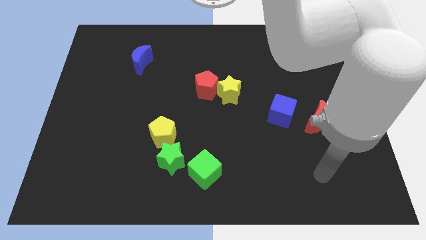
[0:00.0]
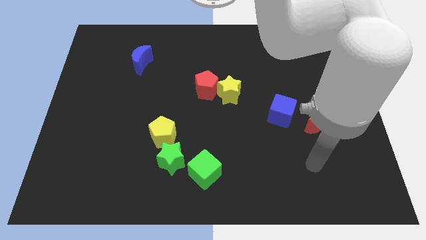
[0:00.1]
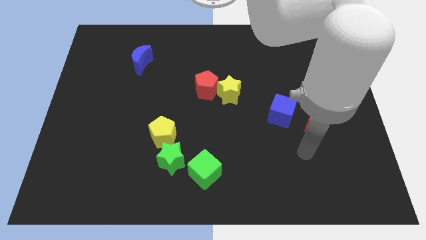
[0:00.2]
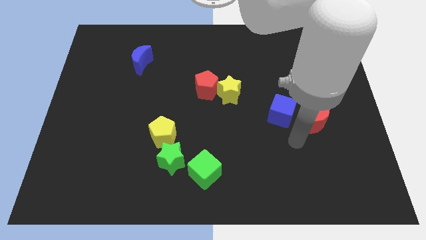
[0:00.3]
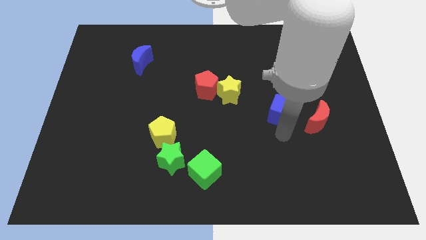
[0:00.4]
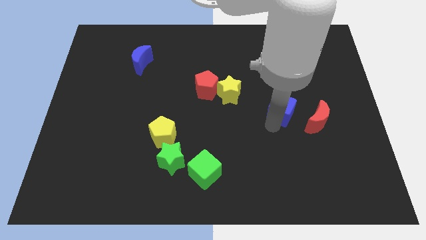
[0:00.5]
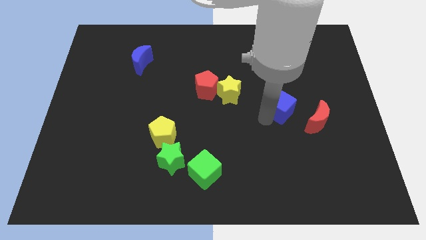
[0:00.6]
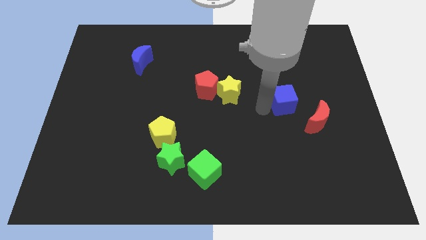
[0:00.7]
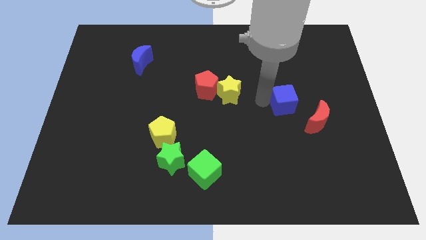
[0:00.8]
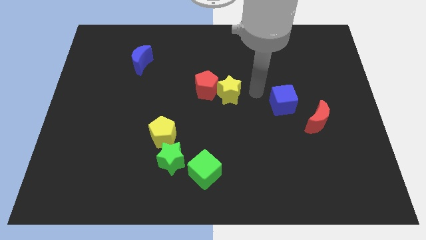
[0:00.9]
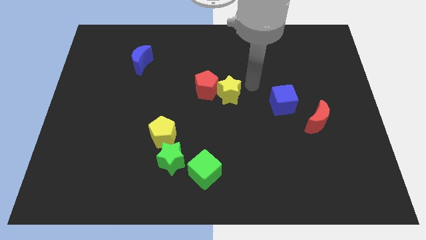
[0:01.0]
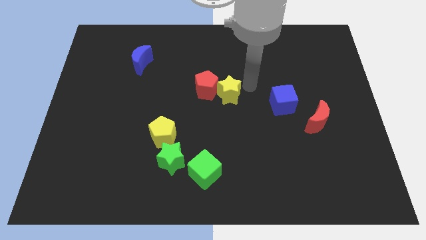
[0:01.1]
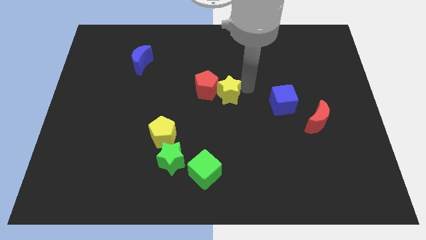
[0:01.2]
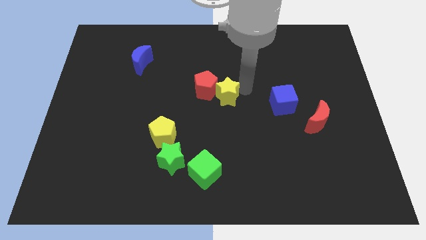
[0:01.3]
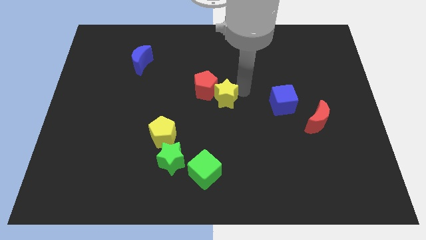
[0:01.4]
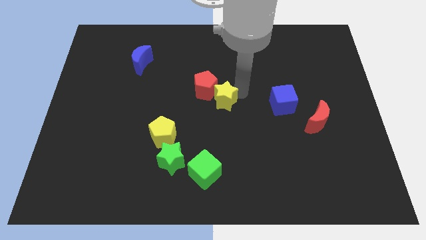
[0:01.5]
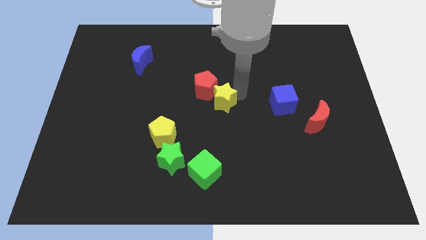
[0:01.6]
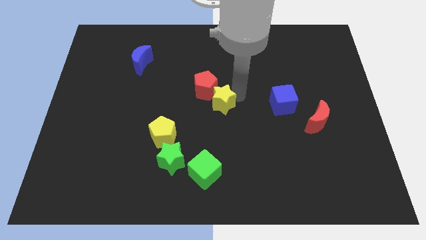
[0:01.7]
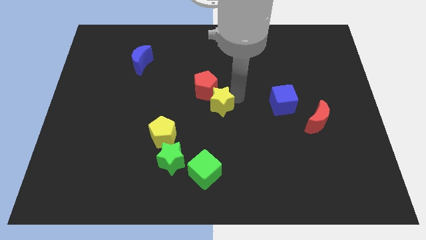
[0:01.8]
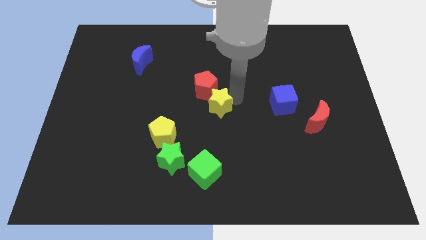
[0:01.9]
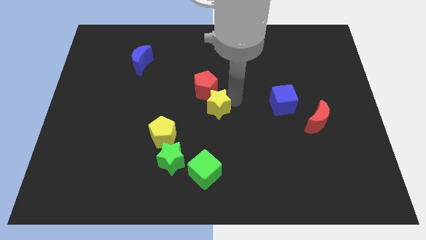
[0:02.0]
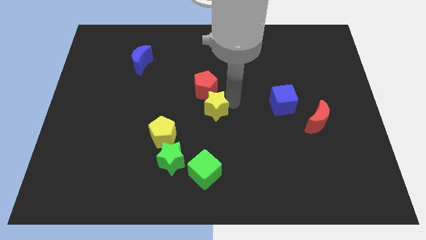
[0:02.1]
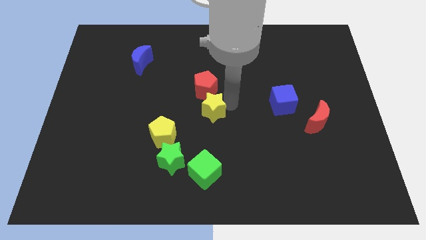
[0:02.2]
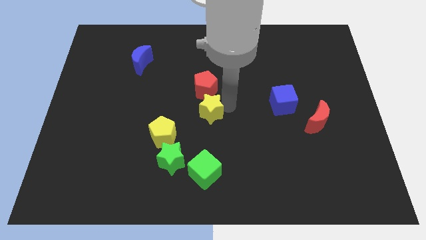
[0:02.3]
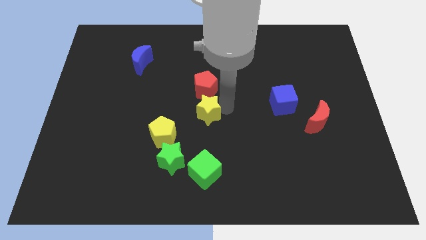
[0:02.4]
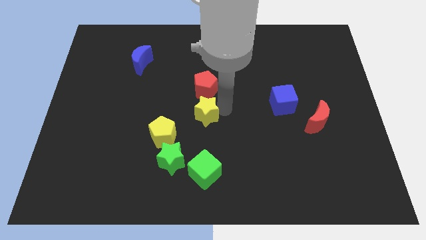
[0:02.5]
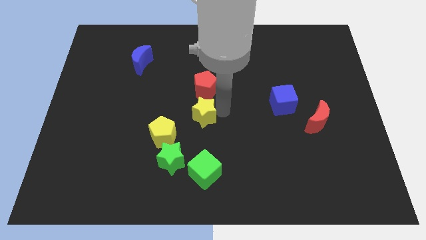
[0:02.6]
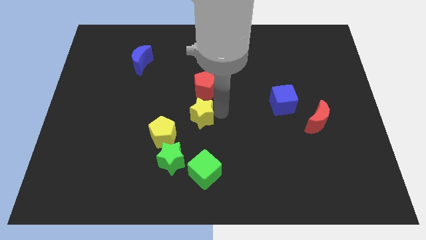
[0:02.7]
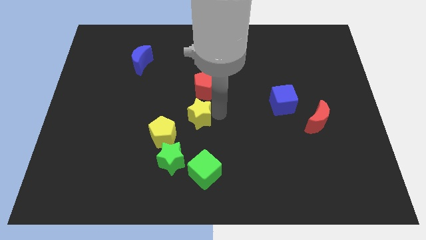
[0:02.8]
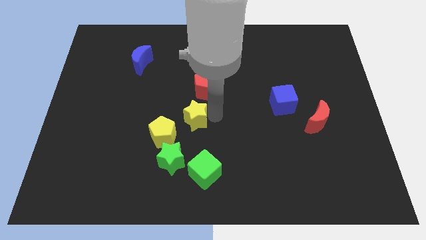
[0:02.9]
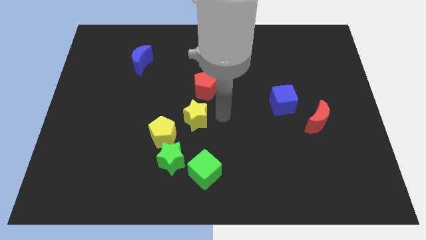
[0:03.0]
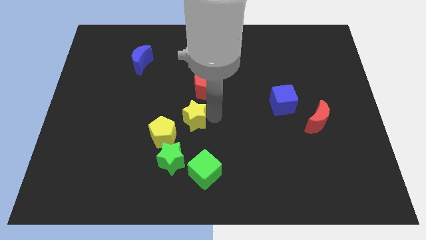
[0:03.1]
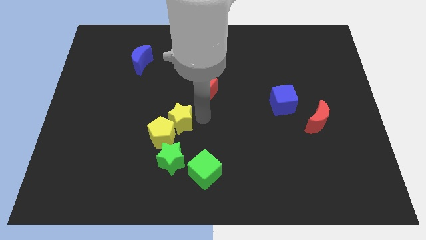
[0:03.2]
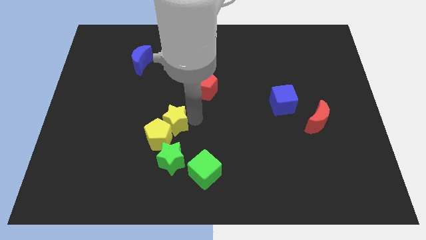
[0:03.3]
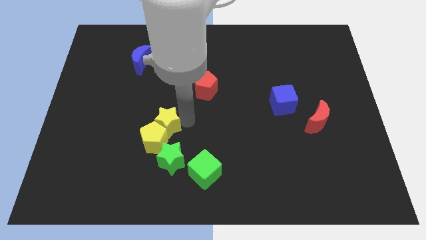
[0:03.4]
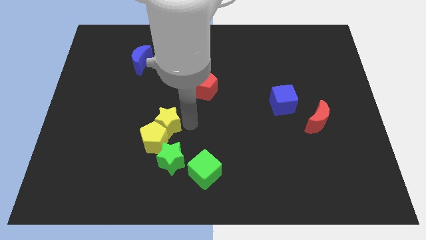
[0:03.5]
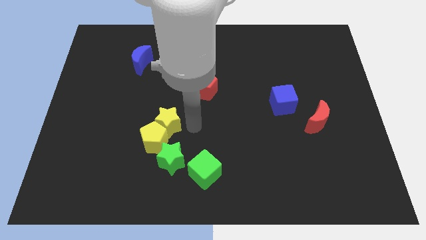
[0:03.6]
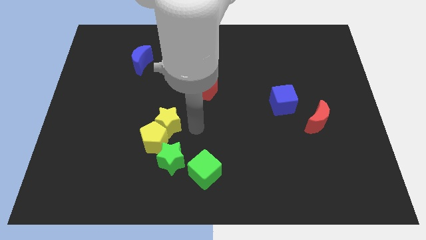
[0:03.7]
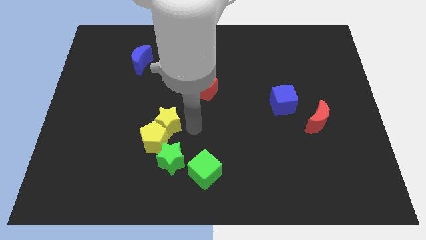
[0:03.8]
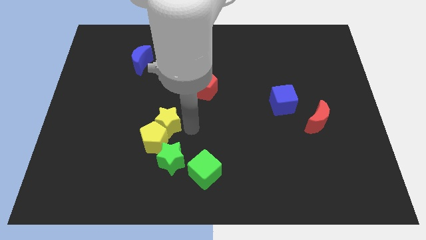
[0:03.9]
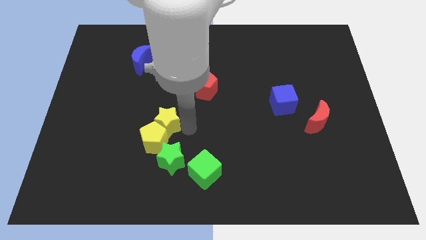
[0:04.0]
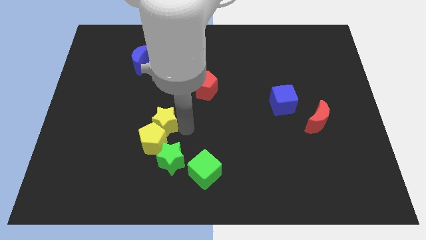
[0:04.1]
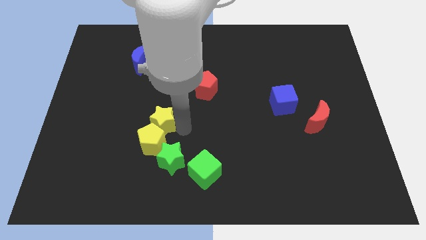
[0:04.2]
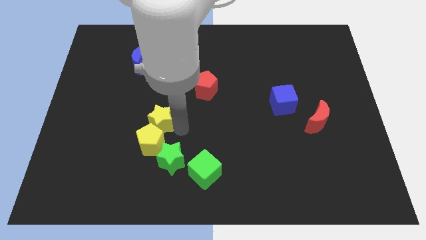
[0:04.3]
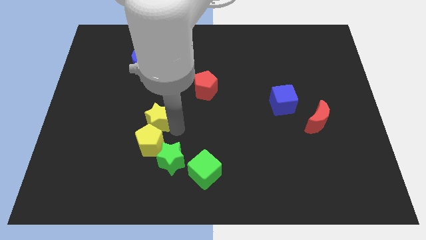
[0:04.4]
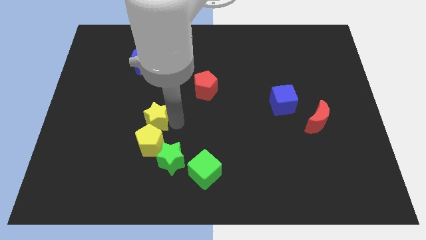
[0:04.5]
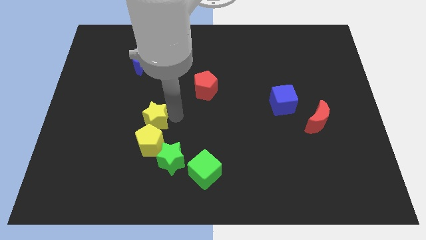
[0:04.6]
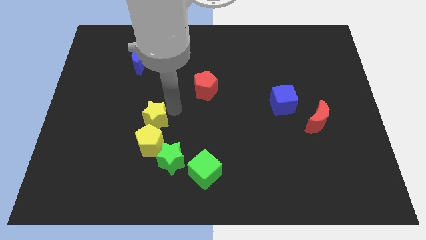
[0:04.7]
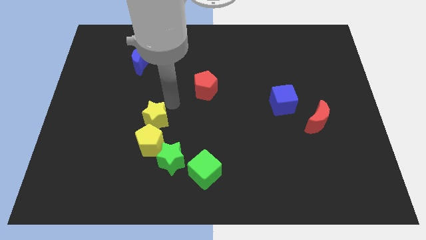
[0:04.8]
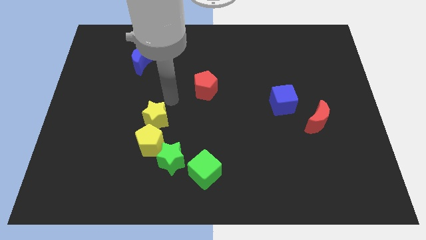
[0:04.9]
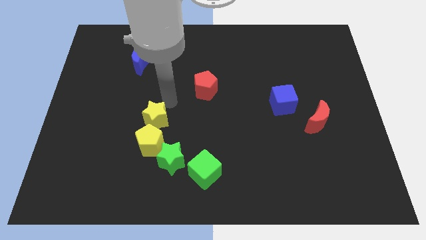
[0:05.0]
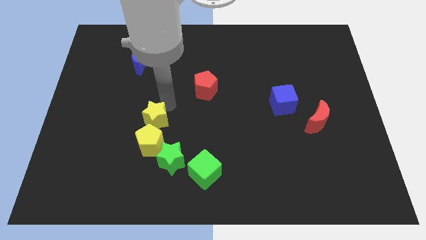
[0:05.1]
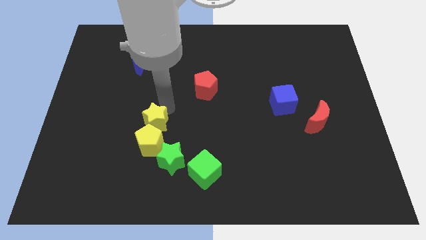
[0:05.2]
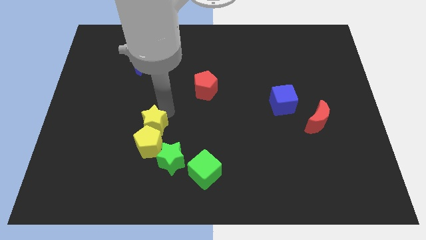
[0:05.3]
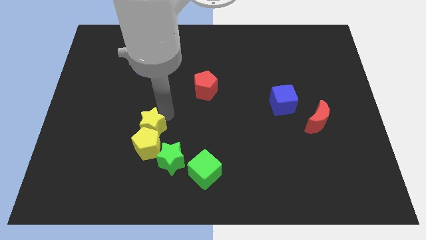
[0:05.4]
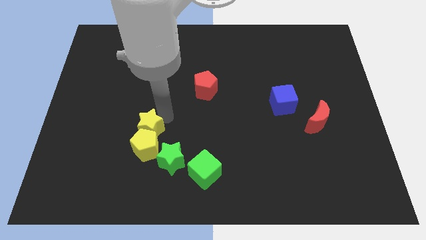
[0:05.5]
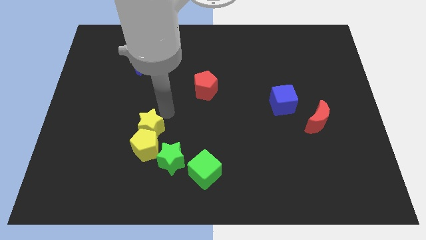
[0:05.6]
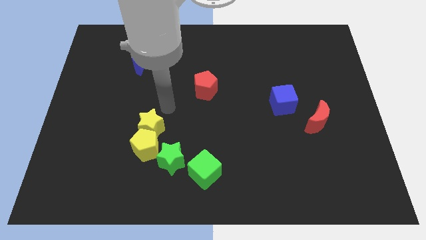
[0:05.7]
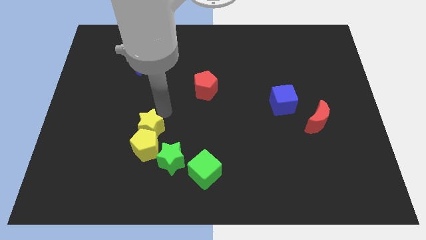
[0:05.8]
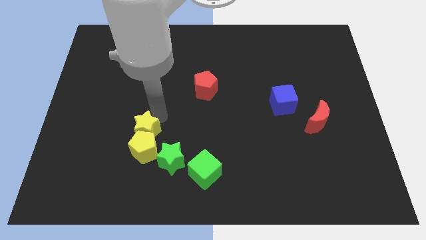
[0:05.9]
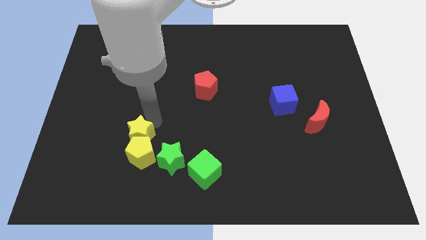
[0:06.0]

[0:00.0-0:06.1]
slide the yellow star downwards and then to the left

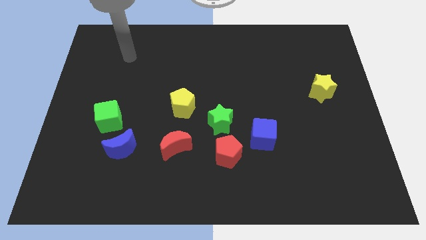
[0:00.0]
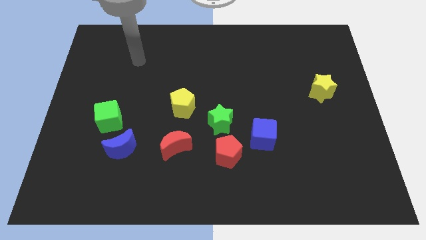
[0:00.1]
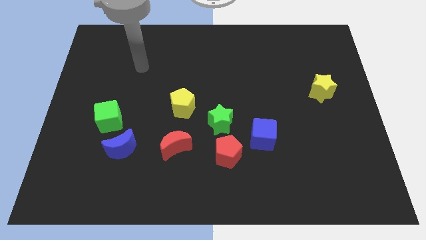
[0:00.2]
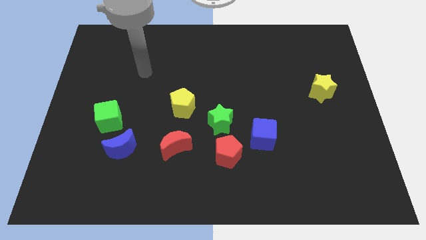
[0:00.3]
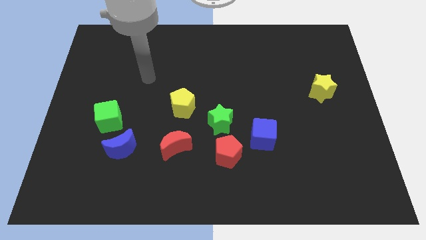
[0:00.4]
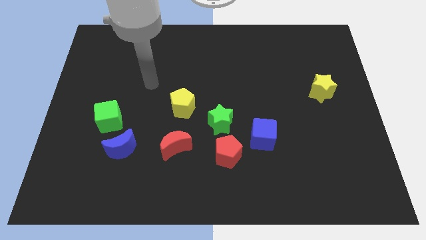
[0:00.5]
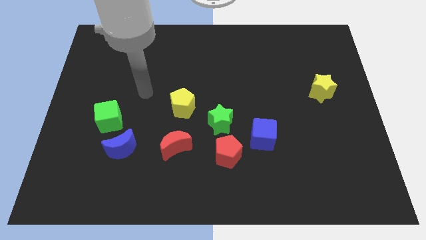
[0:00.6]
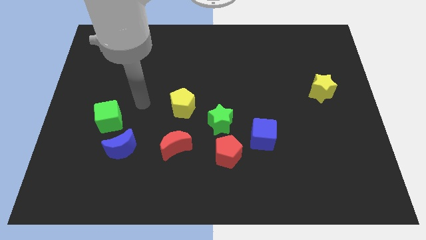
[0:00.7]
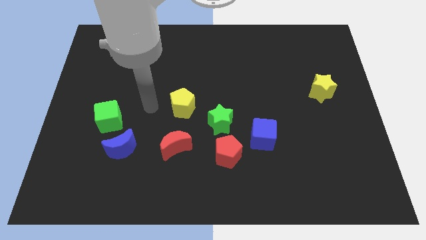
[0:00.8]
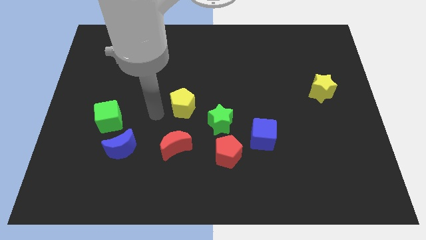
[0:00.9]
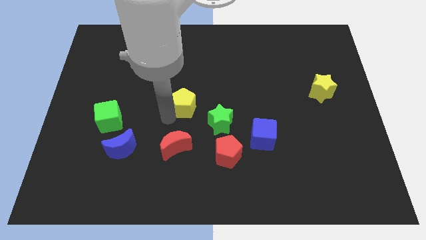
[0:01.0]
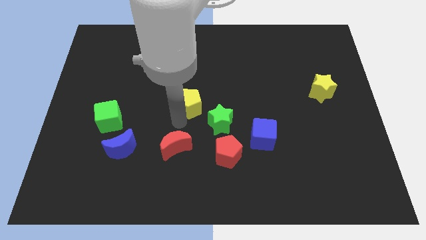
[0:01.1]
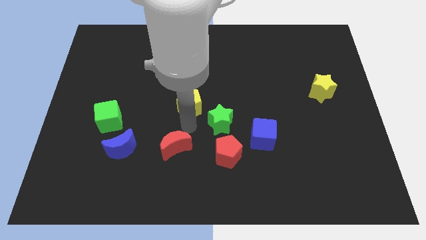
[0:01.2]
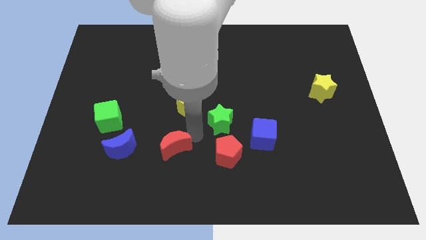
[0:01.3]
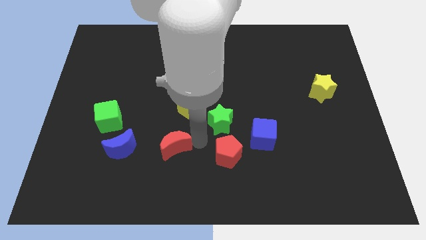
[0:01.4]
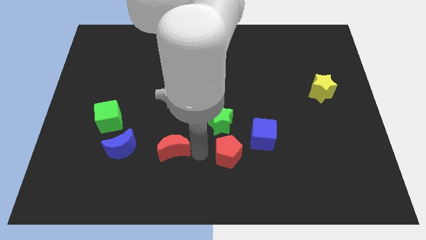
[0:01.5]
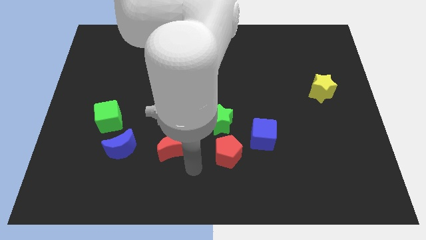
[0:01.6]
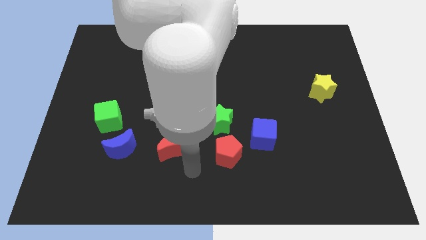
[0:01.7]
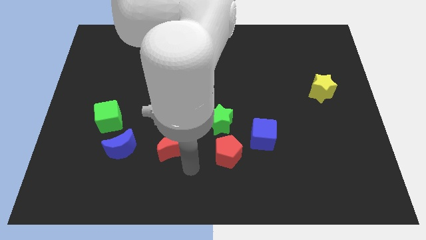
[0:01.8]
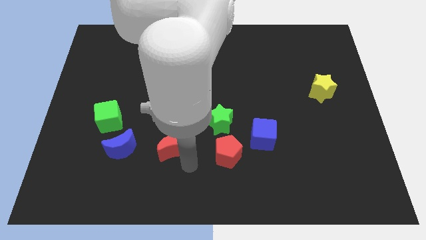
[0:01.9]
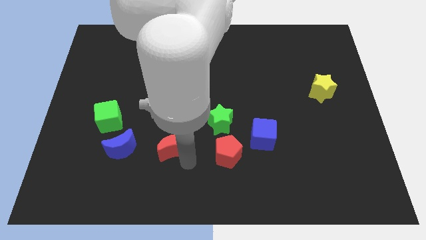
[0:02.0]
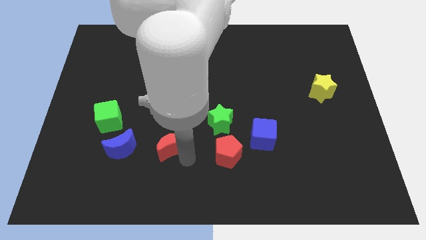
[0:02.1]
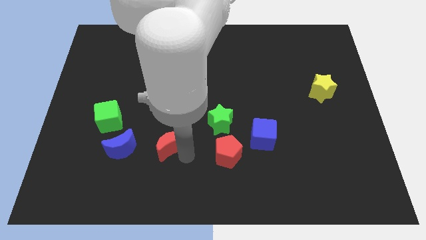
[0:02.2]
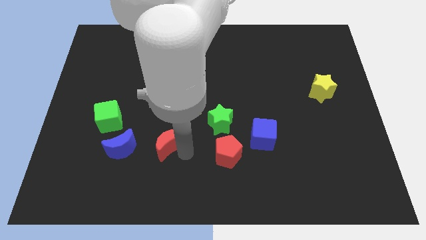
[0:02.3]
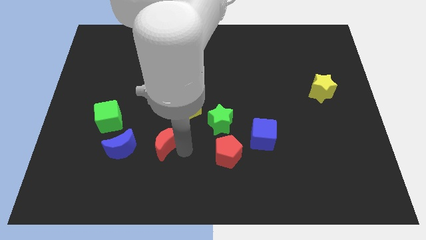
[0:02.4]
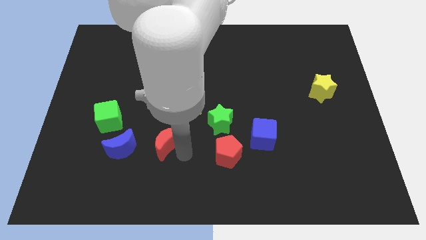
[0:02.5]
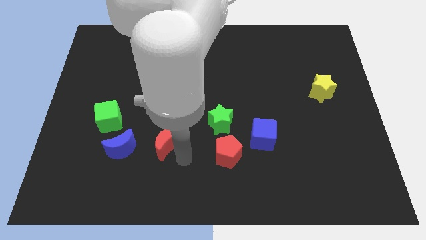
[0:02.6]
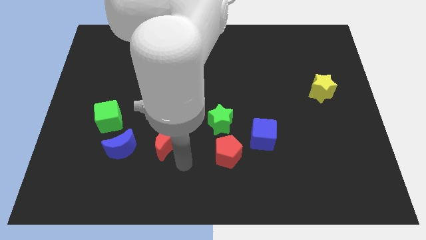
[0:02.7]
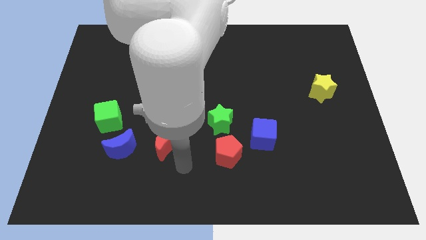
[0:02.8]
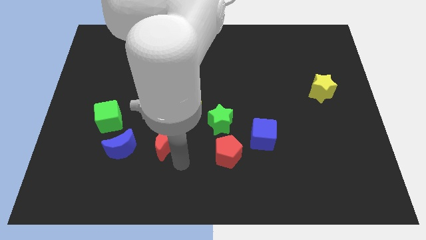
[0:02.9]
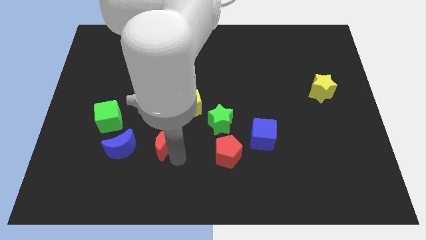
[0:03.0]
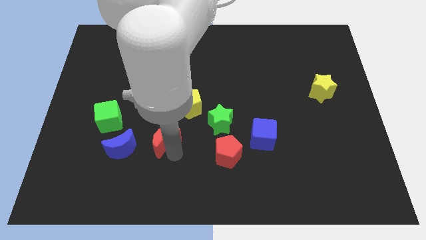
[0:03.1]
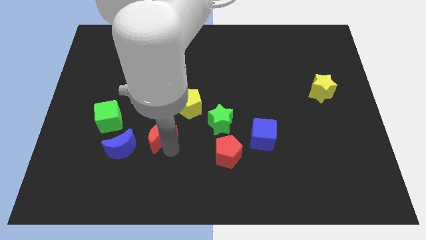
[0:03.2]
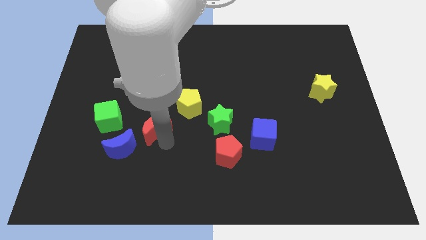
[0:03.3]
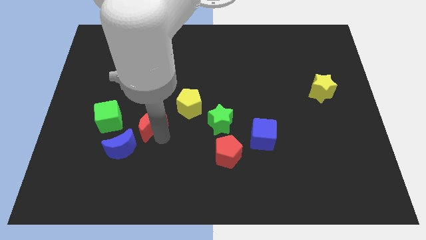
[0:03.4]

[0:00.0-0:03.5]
slide the red moon diagonally up and left a little bit
